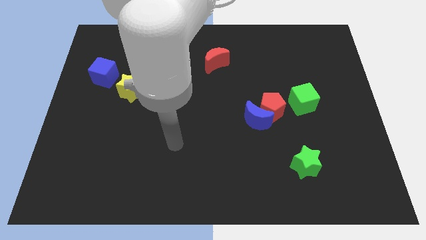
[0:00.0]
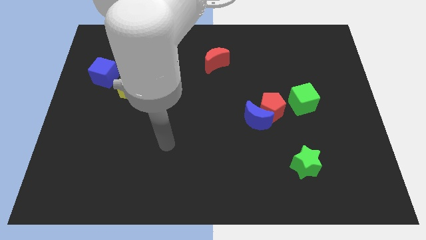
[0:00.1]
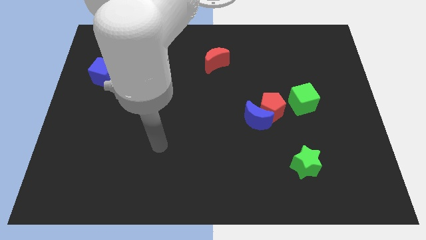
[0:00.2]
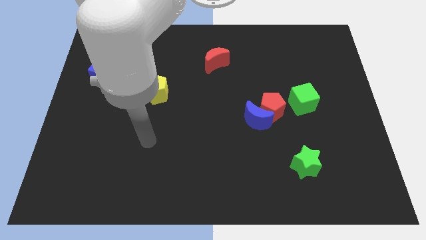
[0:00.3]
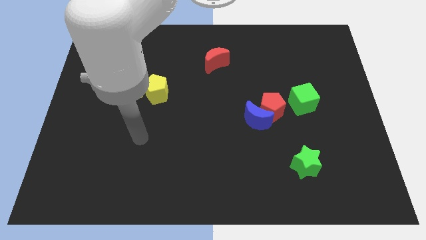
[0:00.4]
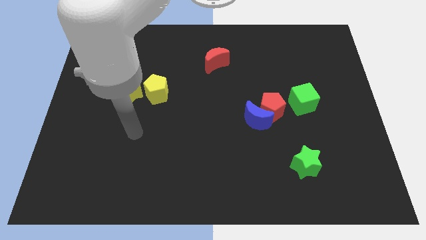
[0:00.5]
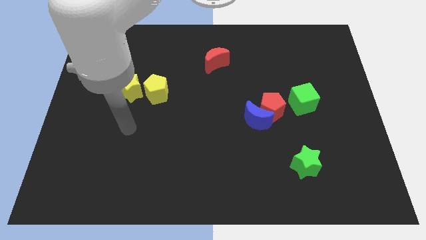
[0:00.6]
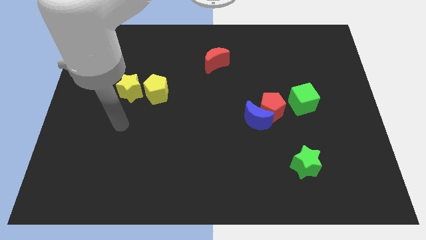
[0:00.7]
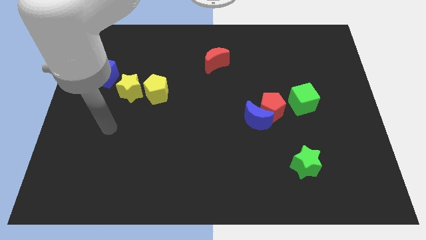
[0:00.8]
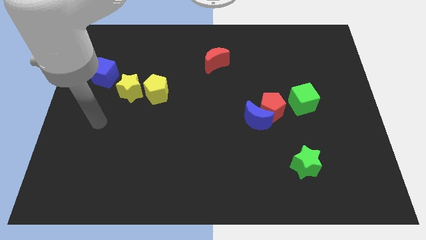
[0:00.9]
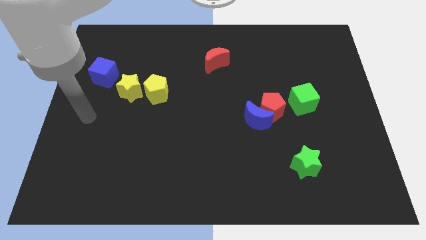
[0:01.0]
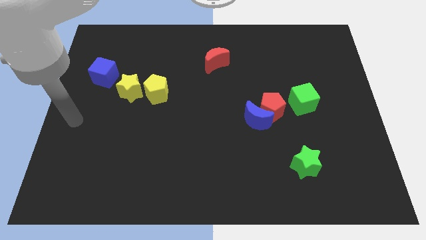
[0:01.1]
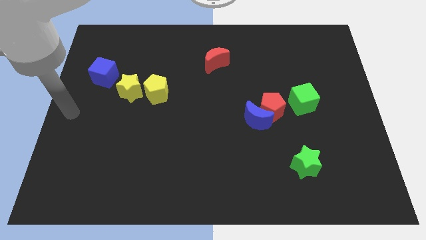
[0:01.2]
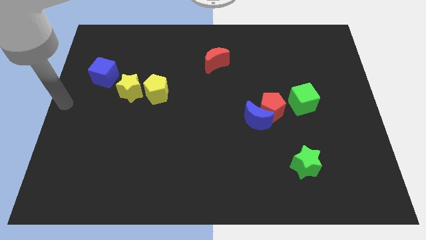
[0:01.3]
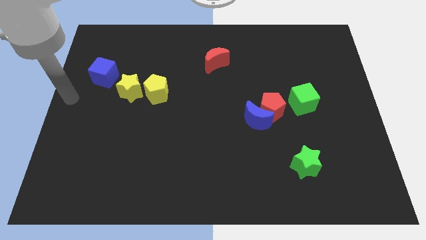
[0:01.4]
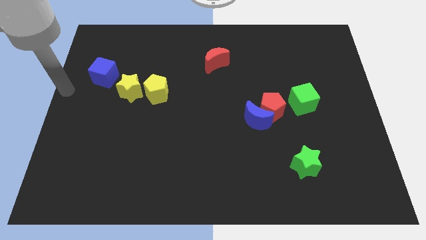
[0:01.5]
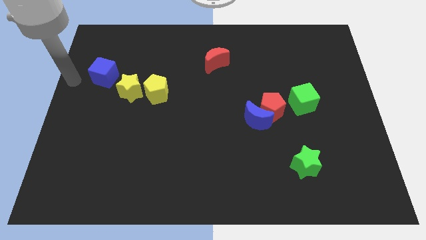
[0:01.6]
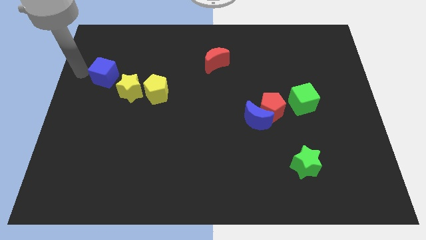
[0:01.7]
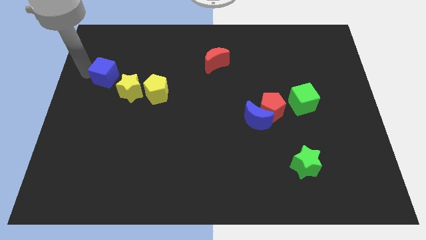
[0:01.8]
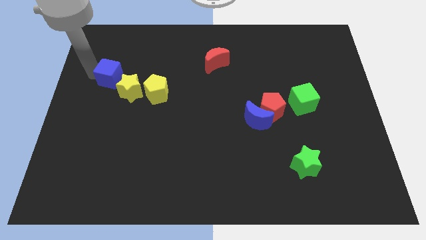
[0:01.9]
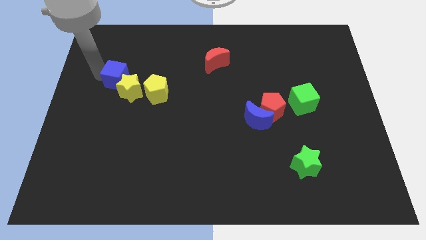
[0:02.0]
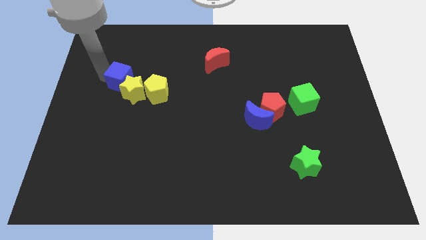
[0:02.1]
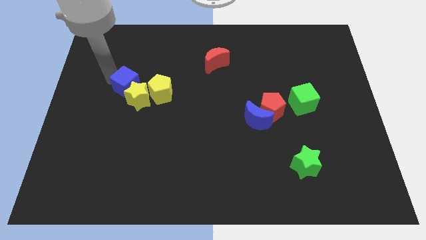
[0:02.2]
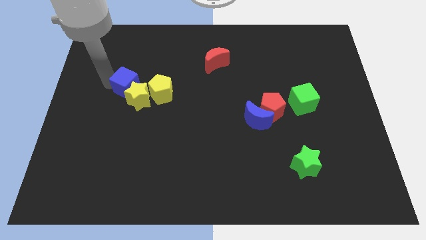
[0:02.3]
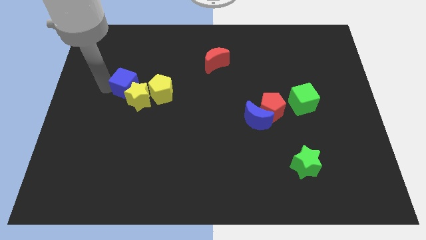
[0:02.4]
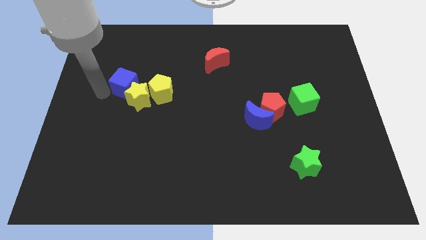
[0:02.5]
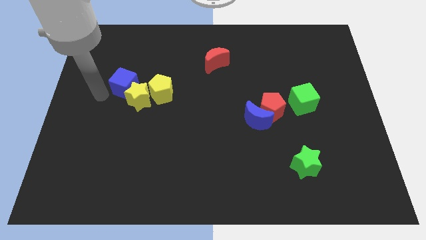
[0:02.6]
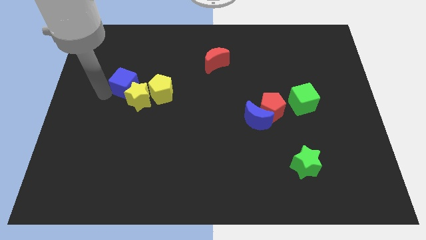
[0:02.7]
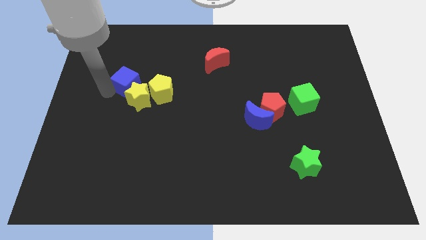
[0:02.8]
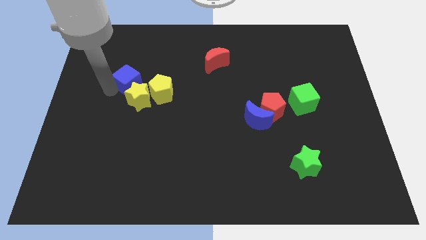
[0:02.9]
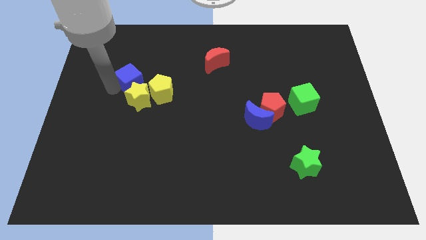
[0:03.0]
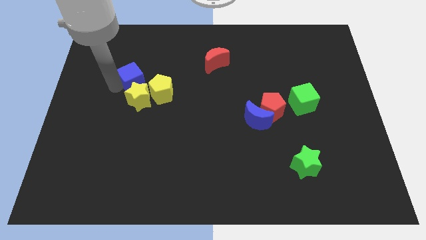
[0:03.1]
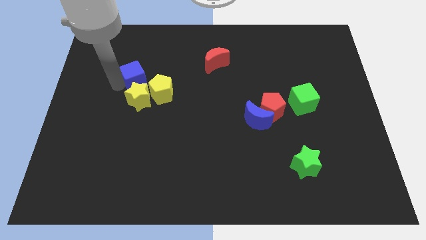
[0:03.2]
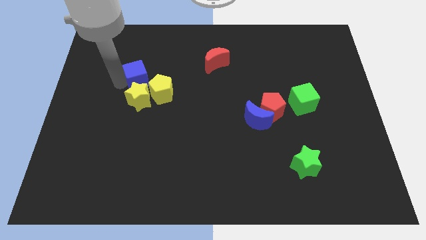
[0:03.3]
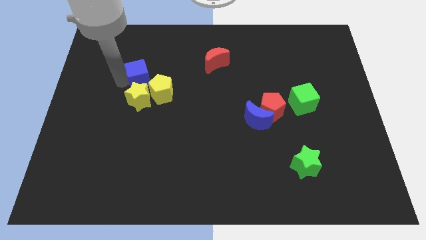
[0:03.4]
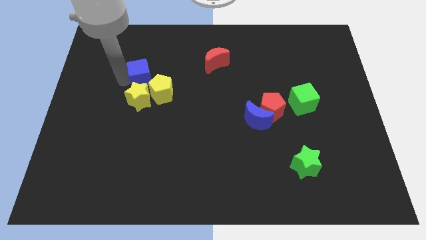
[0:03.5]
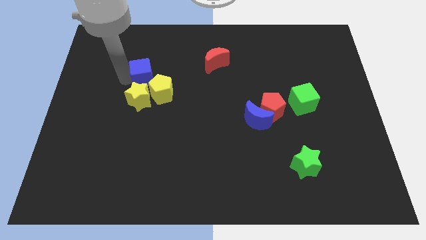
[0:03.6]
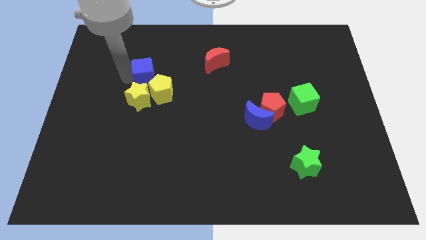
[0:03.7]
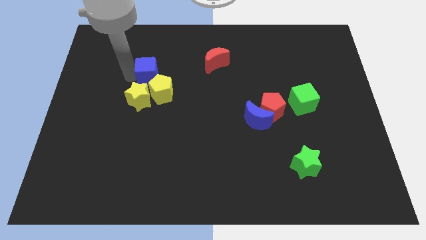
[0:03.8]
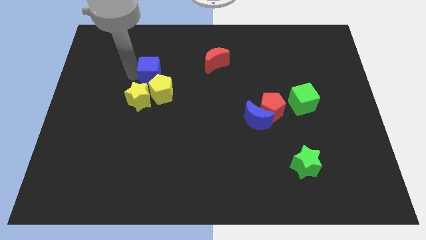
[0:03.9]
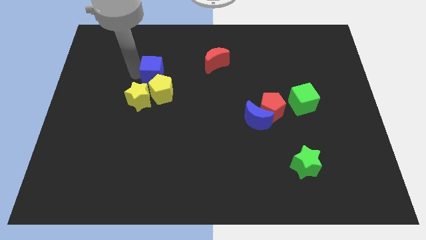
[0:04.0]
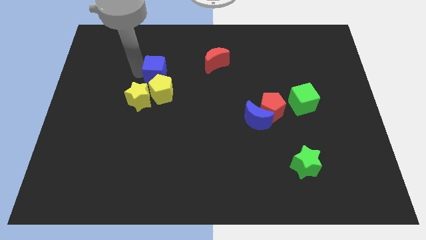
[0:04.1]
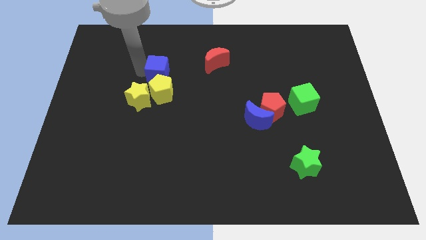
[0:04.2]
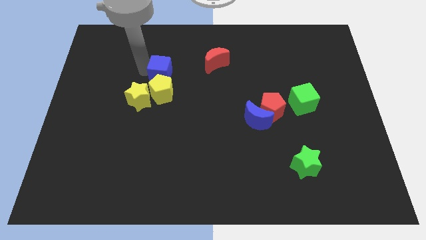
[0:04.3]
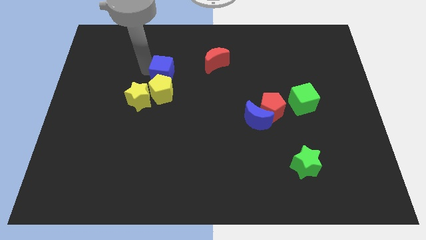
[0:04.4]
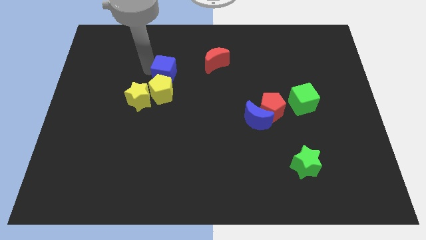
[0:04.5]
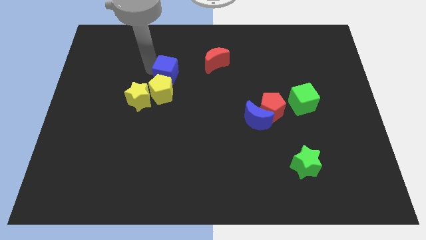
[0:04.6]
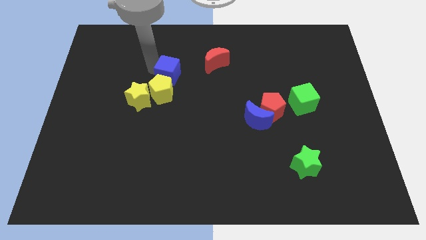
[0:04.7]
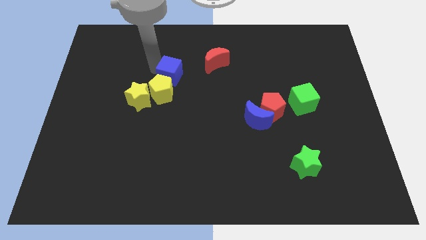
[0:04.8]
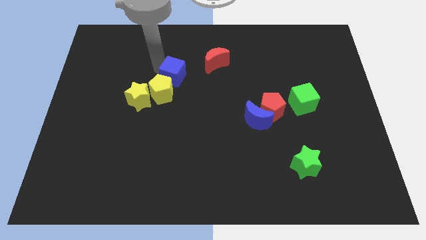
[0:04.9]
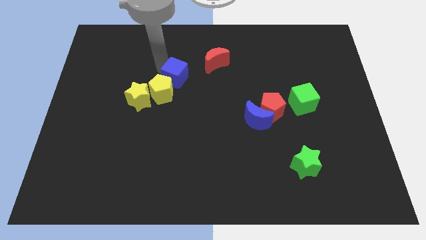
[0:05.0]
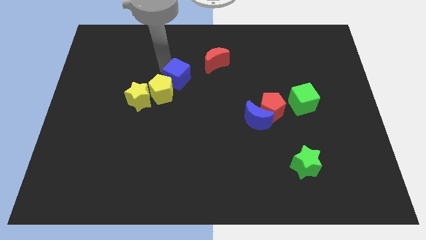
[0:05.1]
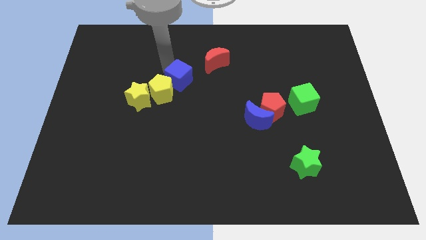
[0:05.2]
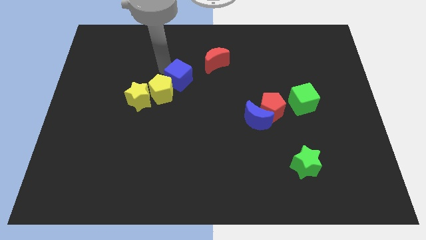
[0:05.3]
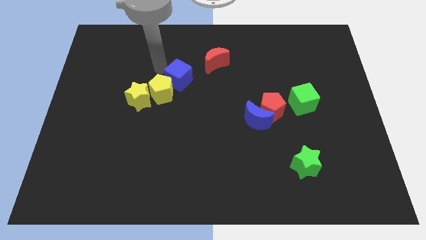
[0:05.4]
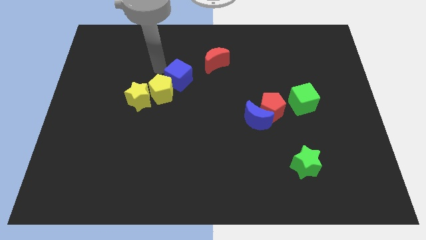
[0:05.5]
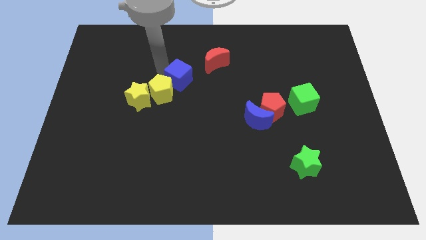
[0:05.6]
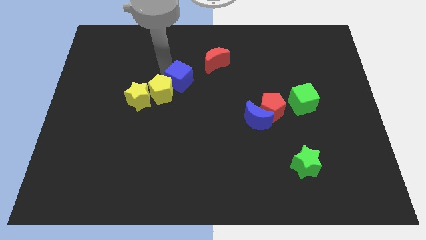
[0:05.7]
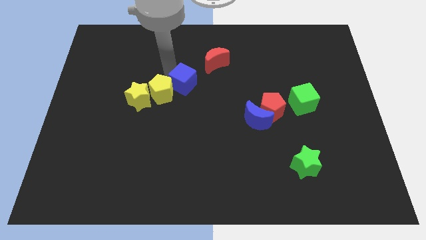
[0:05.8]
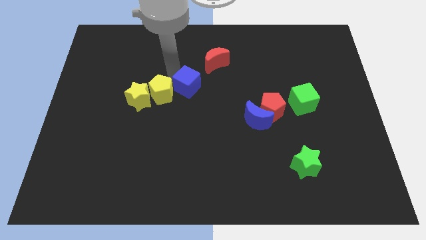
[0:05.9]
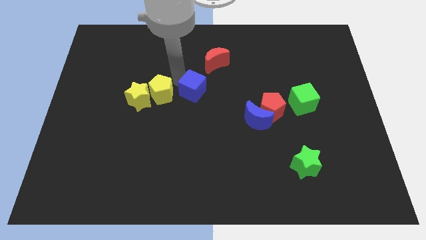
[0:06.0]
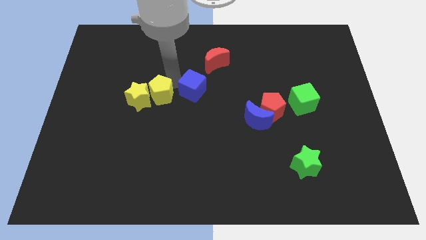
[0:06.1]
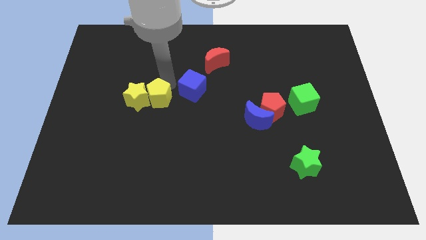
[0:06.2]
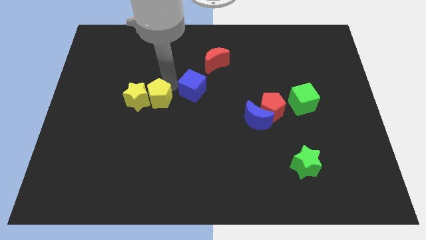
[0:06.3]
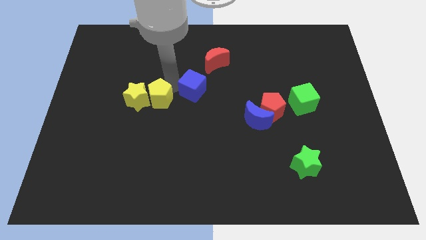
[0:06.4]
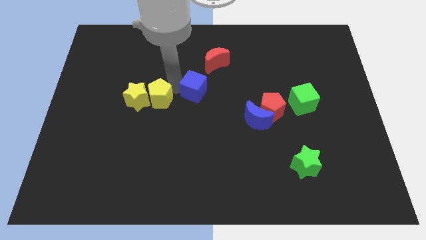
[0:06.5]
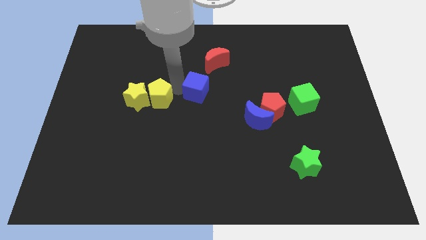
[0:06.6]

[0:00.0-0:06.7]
push the blue cube below the red moon
